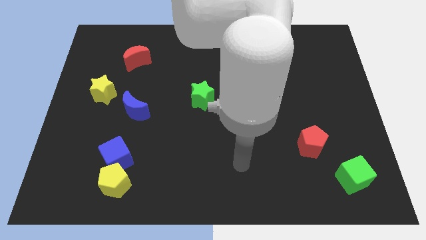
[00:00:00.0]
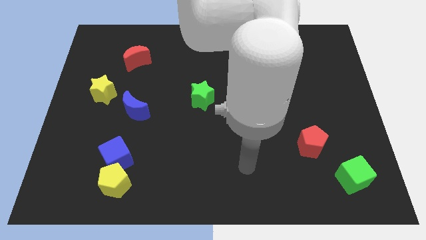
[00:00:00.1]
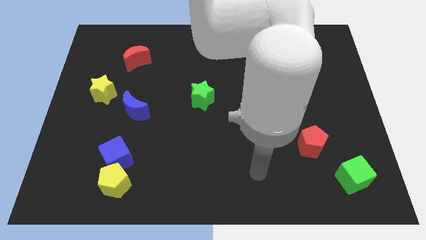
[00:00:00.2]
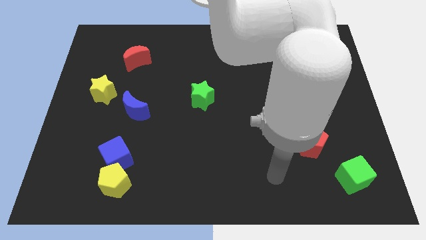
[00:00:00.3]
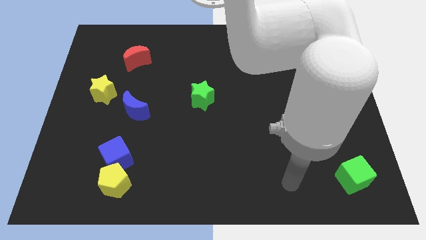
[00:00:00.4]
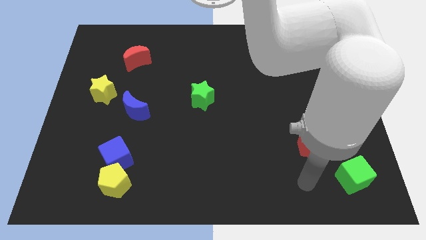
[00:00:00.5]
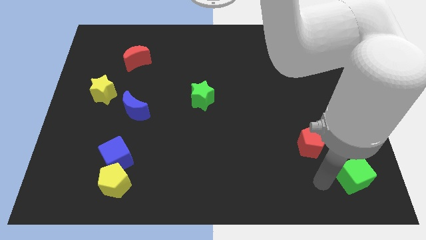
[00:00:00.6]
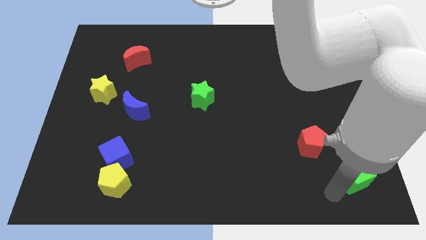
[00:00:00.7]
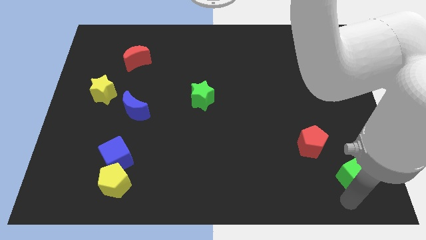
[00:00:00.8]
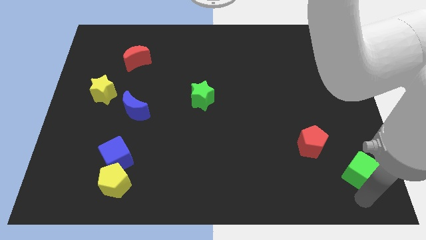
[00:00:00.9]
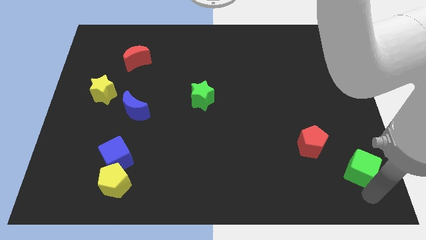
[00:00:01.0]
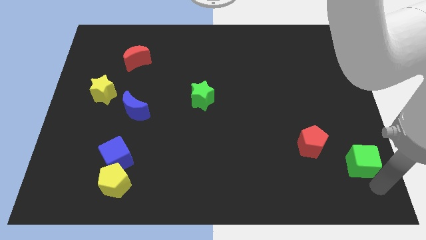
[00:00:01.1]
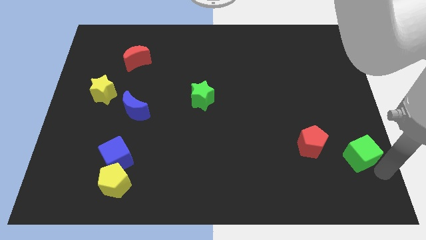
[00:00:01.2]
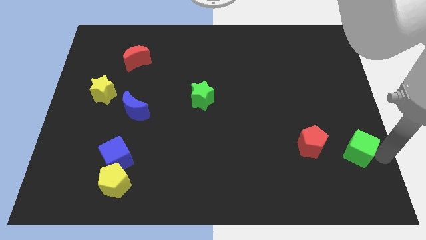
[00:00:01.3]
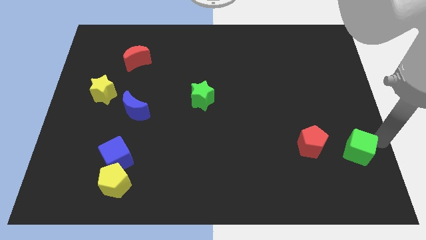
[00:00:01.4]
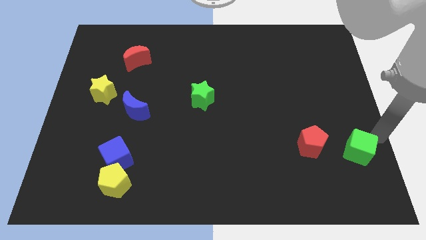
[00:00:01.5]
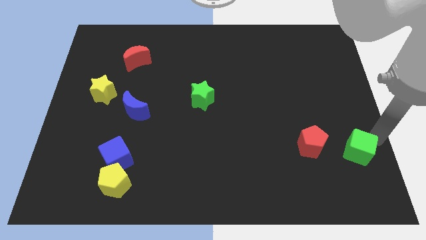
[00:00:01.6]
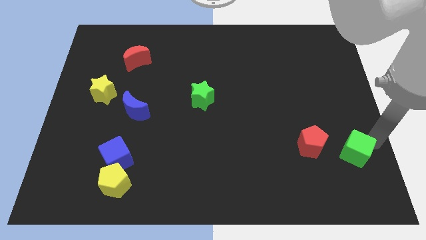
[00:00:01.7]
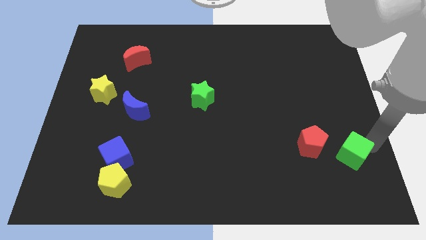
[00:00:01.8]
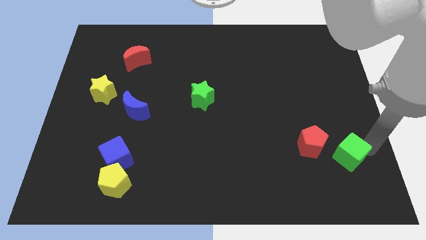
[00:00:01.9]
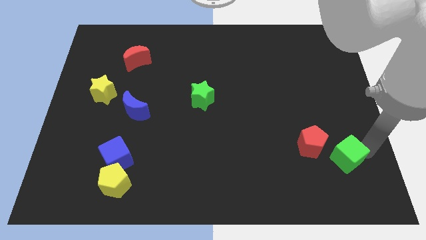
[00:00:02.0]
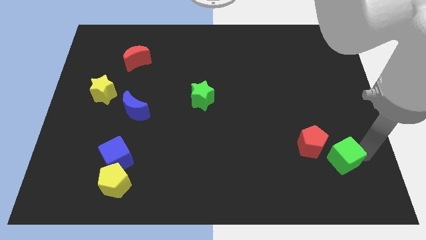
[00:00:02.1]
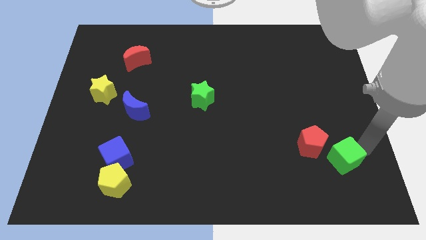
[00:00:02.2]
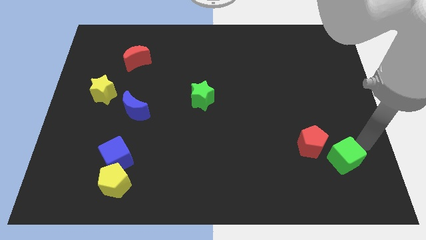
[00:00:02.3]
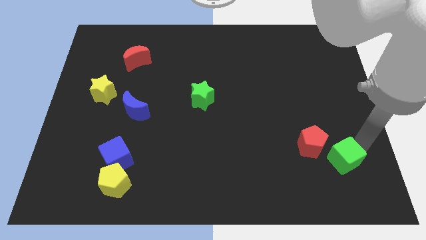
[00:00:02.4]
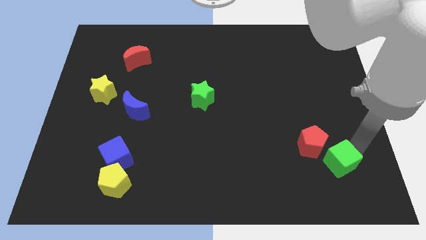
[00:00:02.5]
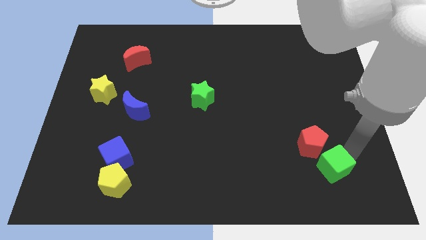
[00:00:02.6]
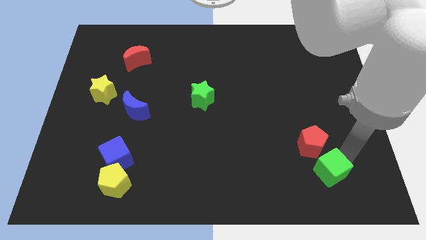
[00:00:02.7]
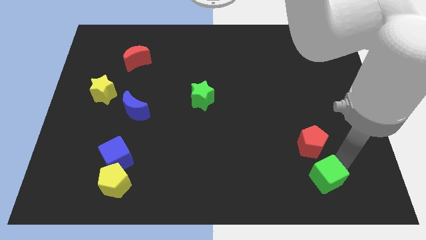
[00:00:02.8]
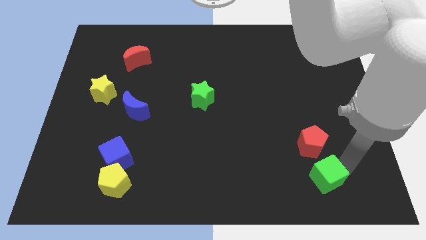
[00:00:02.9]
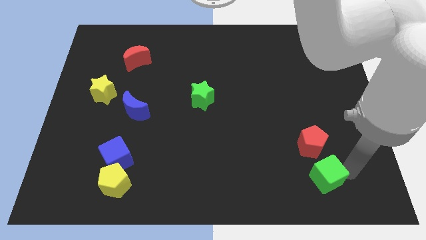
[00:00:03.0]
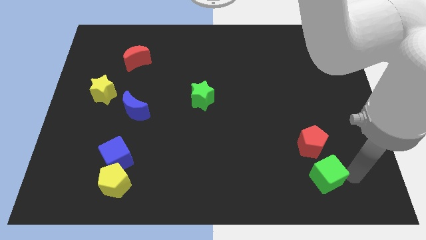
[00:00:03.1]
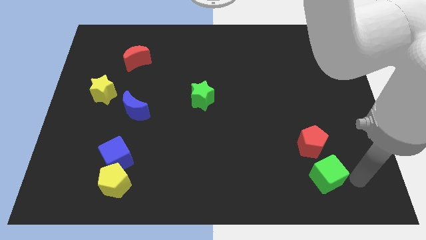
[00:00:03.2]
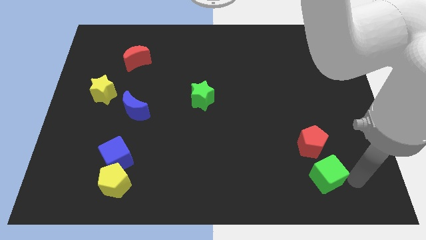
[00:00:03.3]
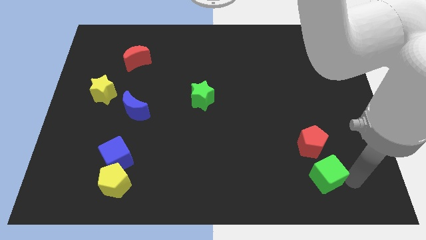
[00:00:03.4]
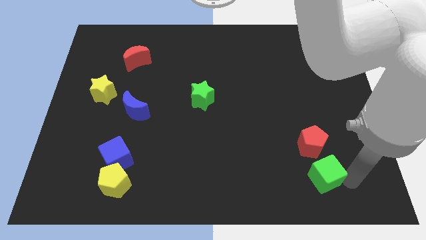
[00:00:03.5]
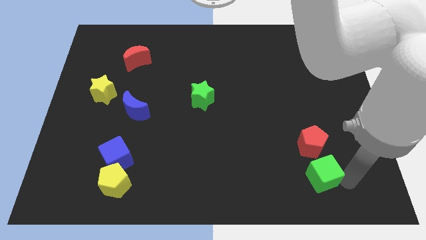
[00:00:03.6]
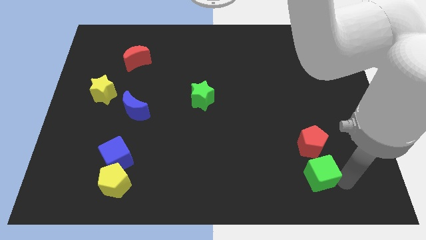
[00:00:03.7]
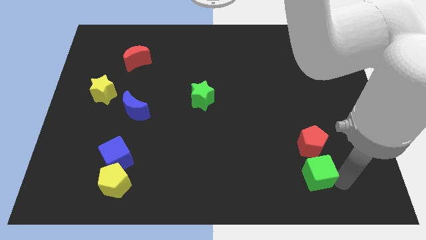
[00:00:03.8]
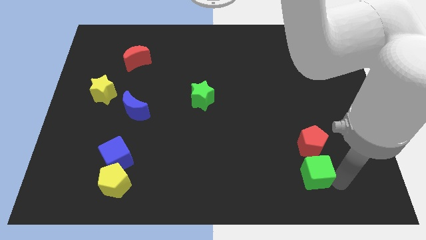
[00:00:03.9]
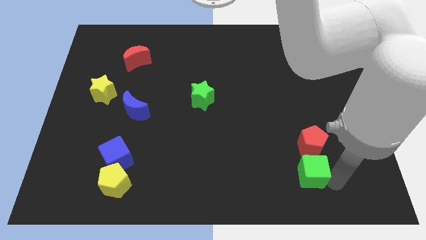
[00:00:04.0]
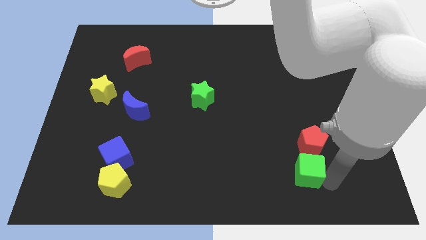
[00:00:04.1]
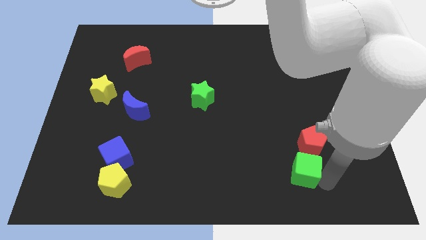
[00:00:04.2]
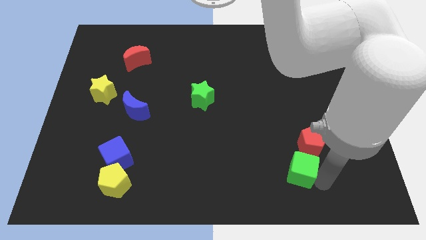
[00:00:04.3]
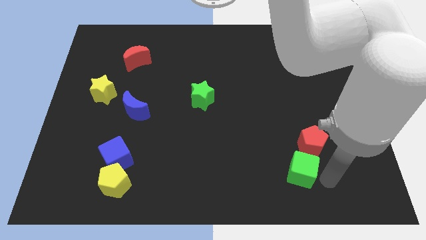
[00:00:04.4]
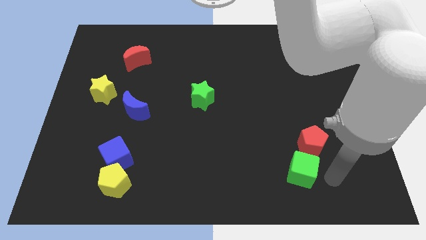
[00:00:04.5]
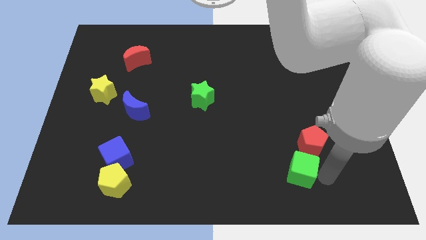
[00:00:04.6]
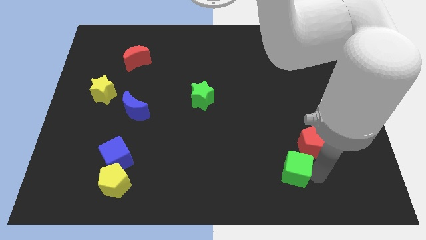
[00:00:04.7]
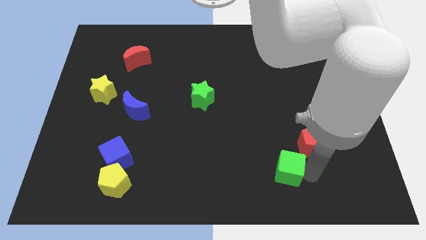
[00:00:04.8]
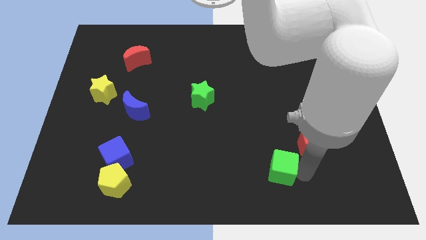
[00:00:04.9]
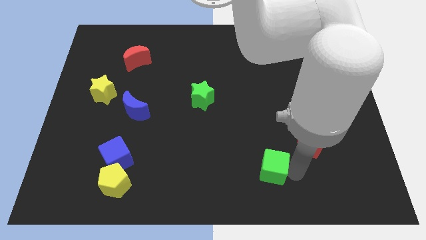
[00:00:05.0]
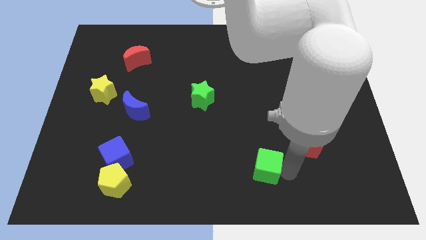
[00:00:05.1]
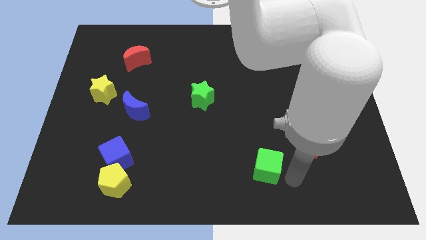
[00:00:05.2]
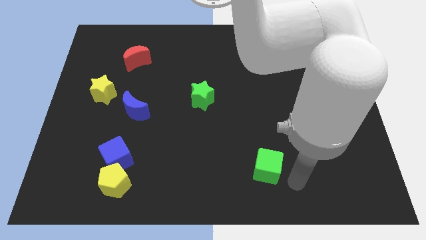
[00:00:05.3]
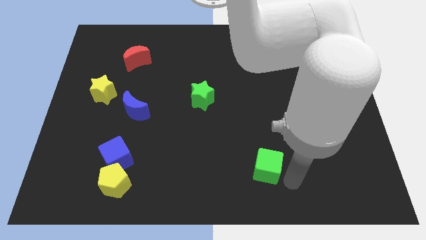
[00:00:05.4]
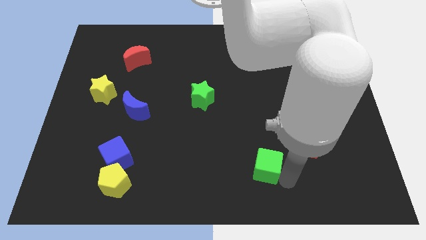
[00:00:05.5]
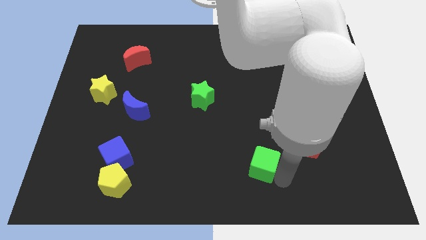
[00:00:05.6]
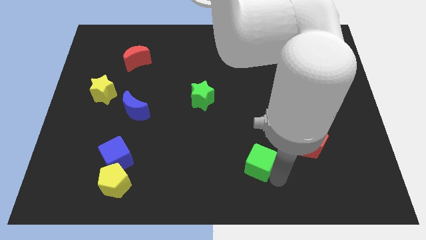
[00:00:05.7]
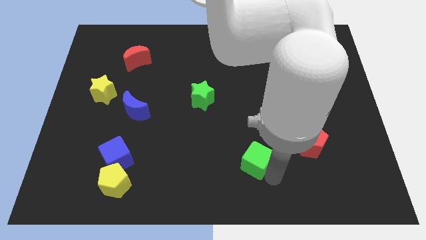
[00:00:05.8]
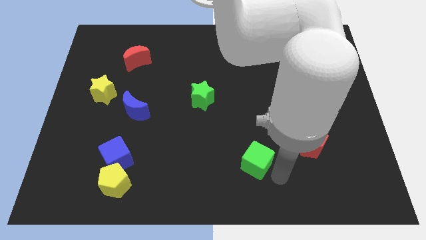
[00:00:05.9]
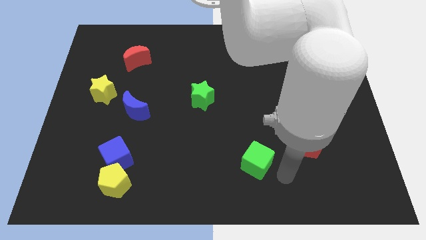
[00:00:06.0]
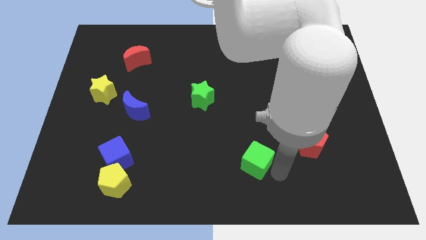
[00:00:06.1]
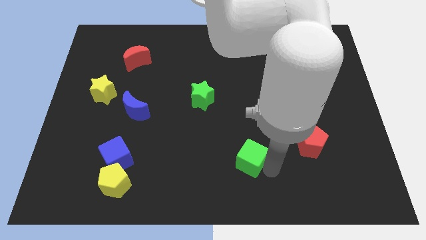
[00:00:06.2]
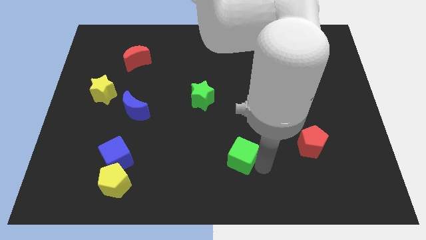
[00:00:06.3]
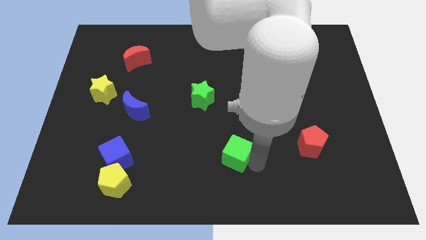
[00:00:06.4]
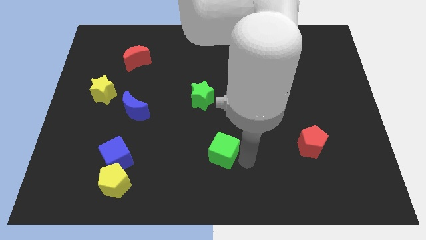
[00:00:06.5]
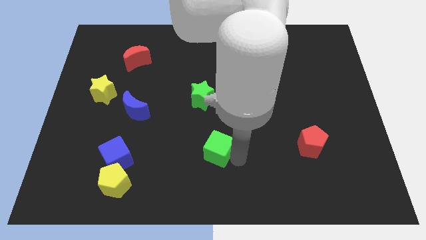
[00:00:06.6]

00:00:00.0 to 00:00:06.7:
move the green cube to the bottom side of the green star

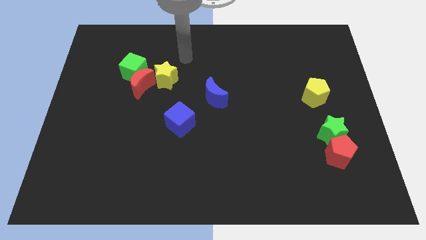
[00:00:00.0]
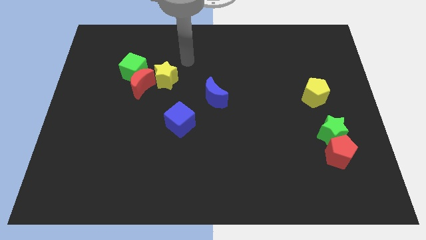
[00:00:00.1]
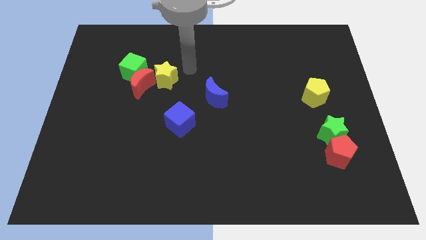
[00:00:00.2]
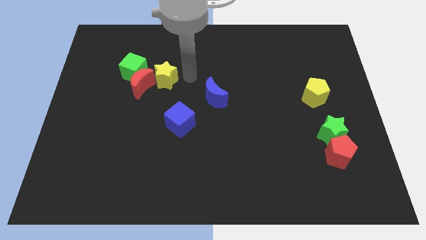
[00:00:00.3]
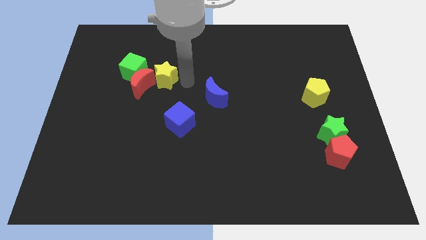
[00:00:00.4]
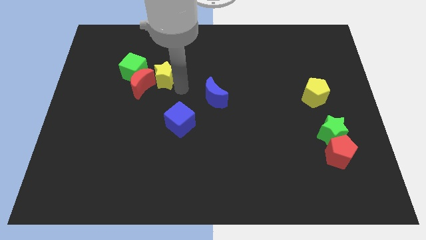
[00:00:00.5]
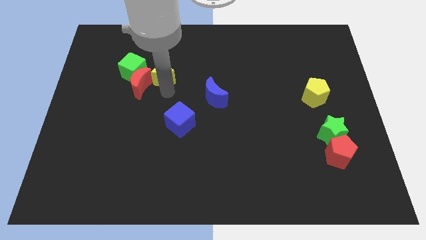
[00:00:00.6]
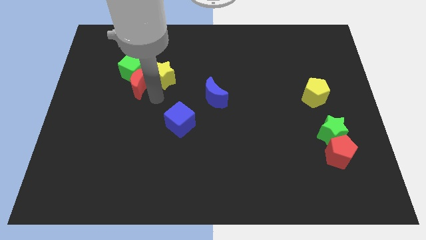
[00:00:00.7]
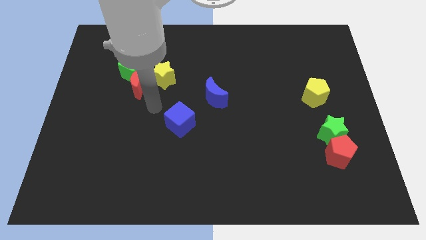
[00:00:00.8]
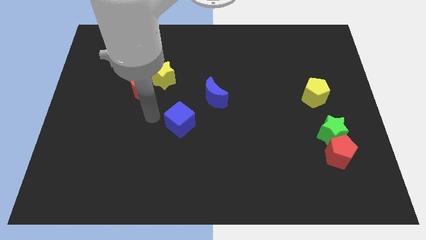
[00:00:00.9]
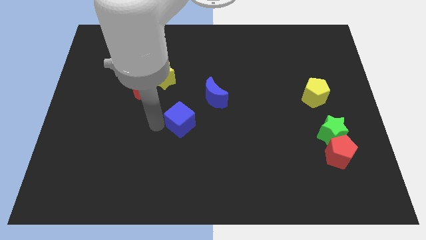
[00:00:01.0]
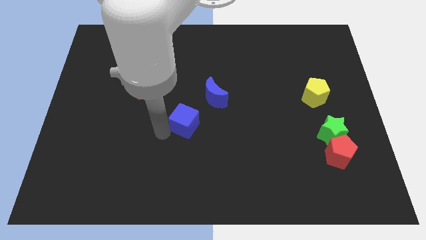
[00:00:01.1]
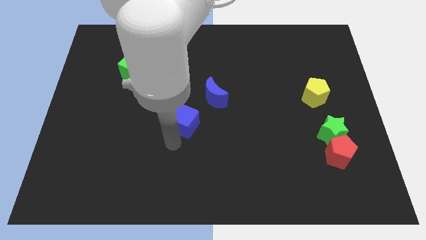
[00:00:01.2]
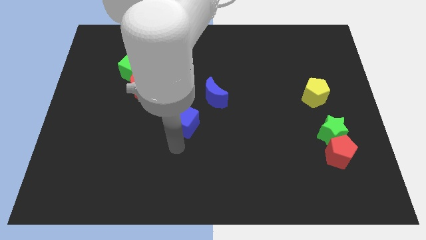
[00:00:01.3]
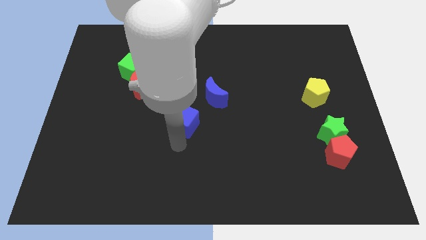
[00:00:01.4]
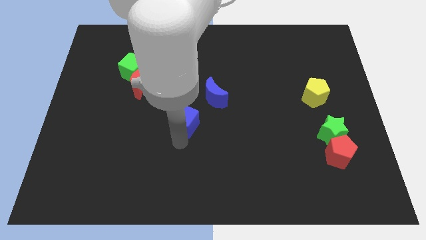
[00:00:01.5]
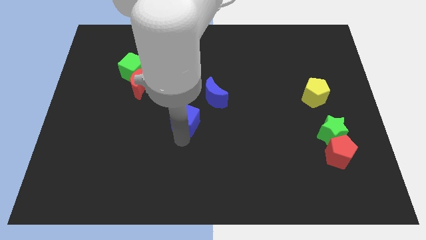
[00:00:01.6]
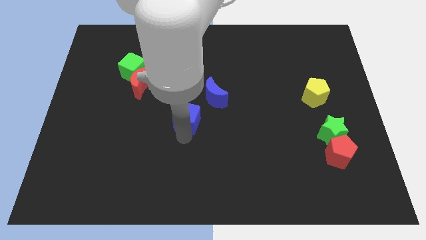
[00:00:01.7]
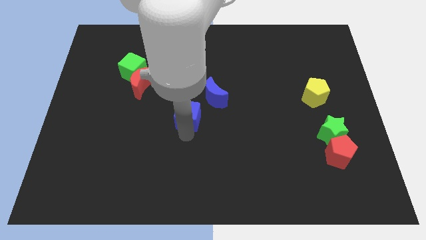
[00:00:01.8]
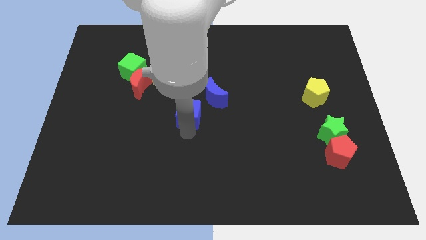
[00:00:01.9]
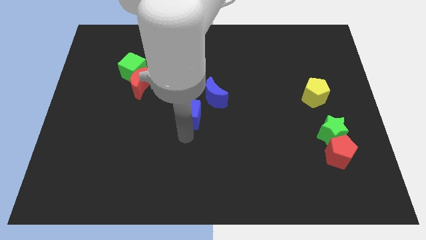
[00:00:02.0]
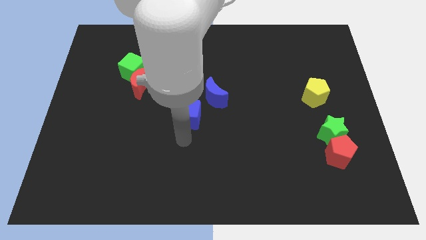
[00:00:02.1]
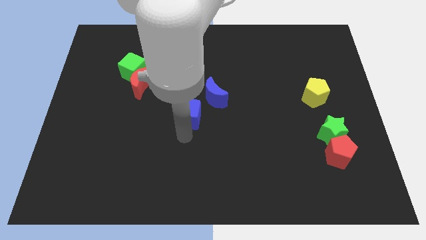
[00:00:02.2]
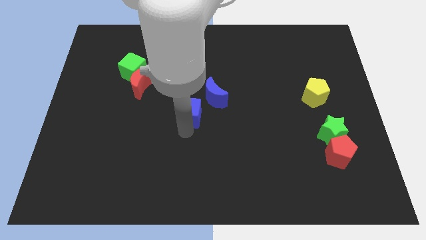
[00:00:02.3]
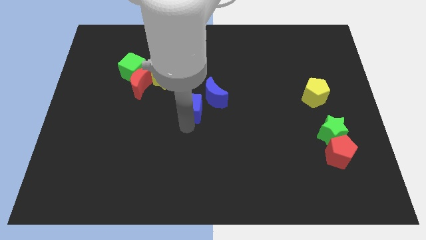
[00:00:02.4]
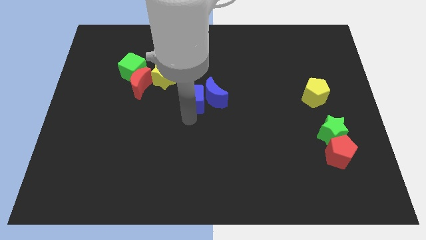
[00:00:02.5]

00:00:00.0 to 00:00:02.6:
slide the blue cube to the top left side of the blue moon
